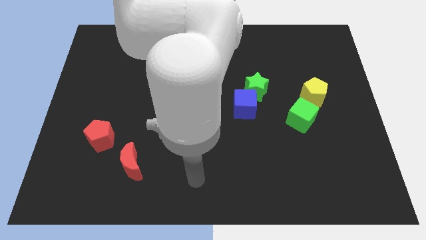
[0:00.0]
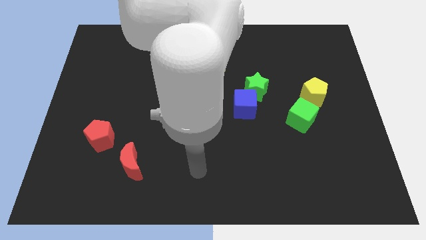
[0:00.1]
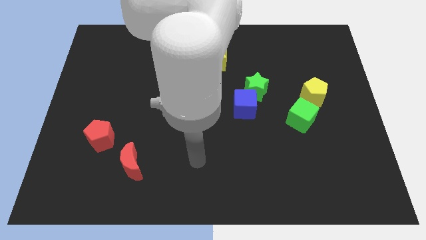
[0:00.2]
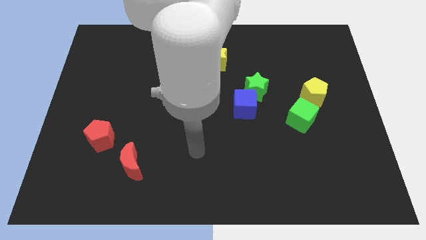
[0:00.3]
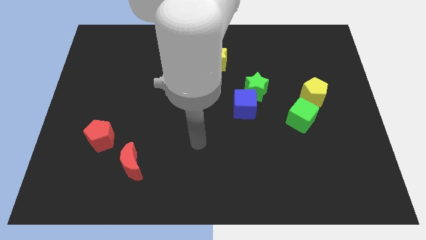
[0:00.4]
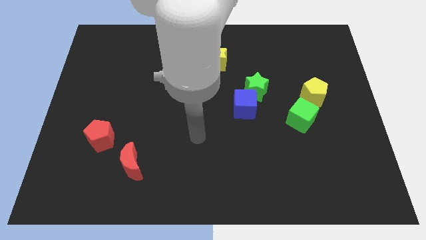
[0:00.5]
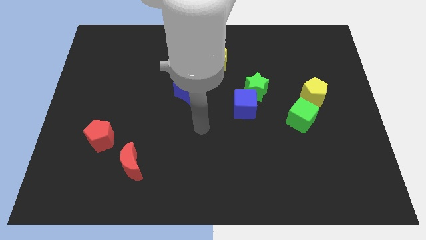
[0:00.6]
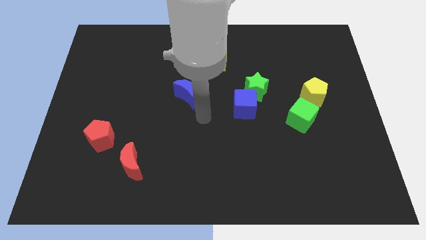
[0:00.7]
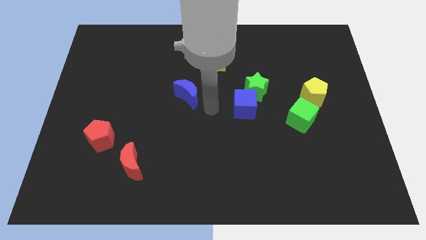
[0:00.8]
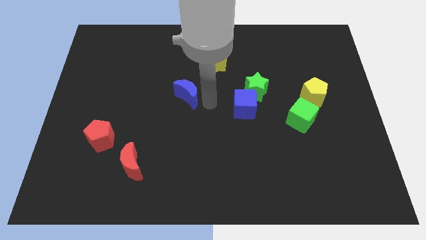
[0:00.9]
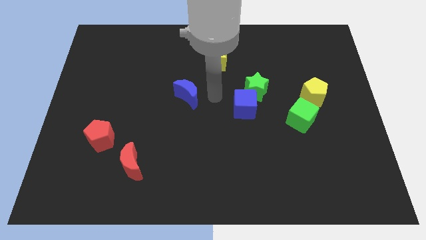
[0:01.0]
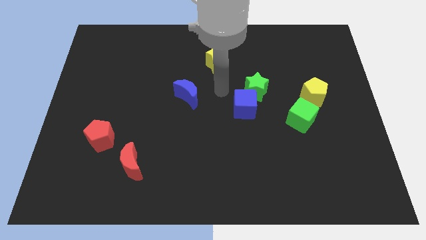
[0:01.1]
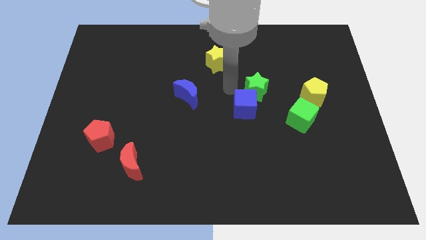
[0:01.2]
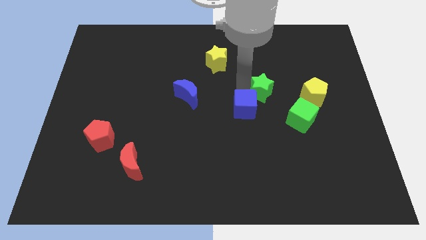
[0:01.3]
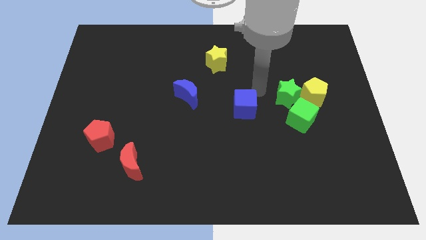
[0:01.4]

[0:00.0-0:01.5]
pull the blue cube apart from the green star

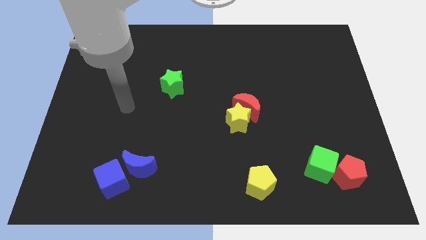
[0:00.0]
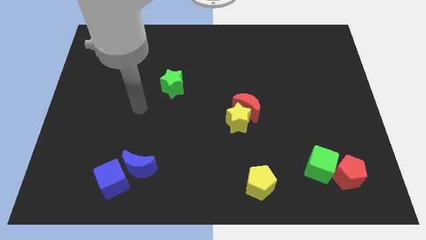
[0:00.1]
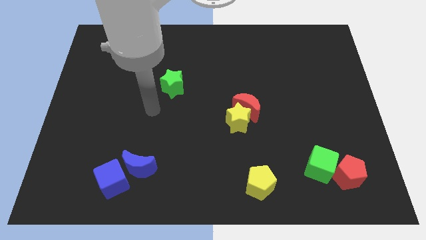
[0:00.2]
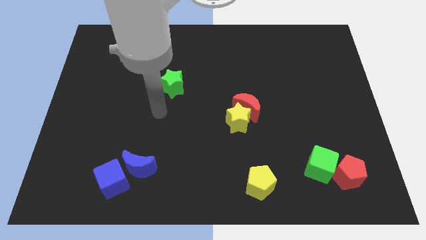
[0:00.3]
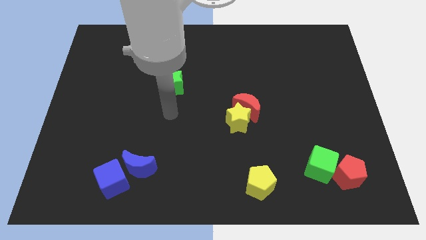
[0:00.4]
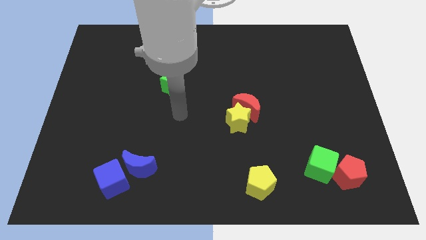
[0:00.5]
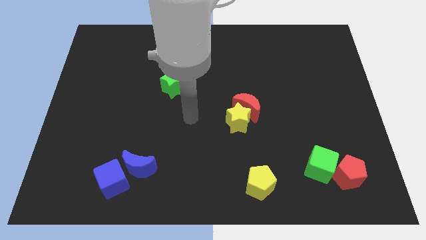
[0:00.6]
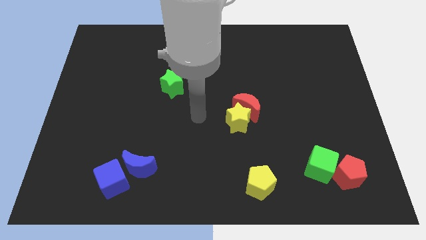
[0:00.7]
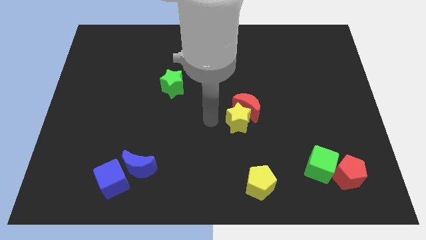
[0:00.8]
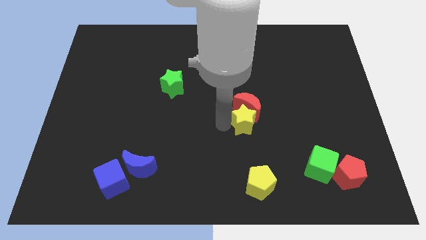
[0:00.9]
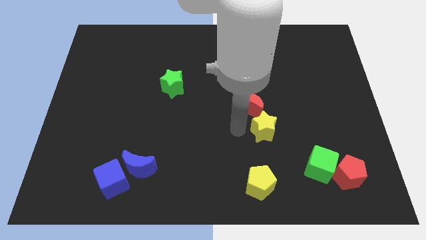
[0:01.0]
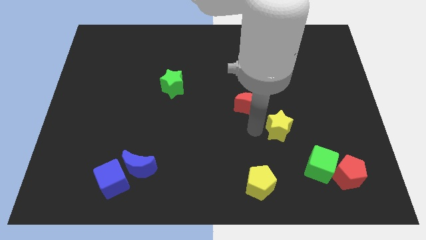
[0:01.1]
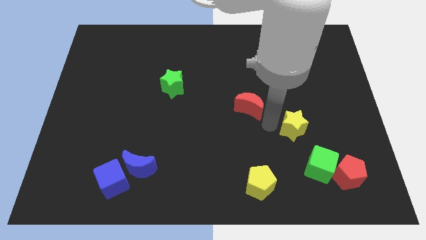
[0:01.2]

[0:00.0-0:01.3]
pull the red moon apart from the yellow star

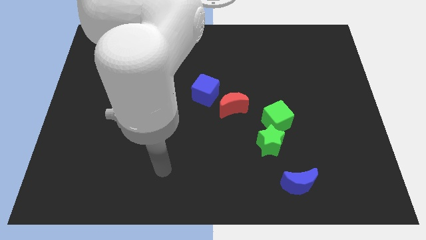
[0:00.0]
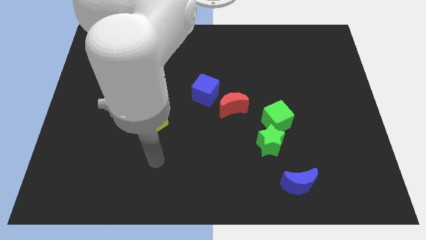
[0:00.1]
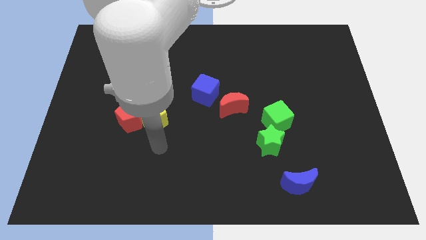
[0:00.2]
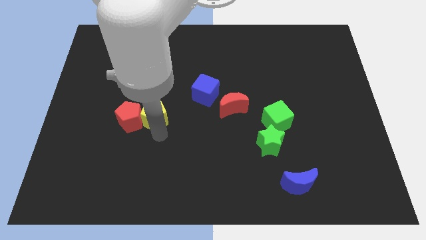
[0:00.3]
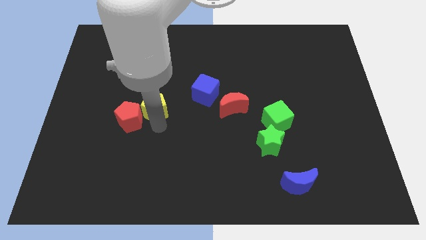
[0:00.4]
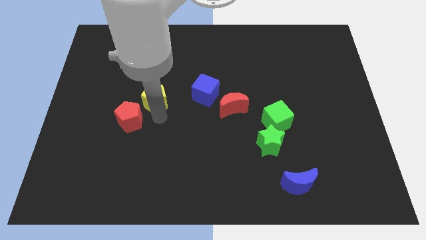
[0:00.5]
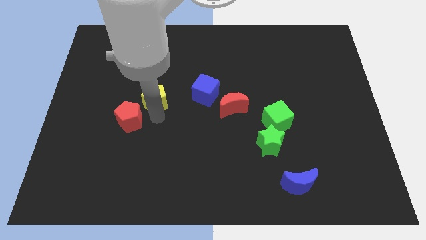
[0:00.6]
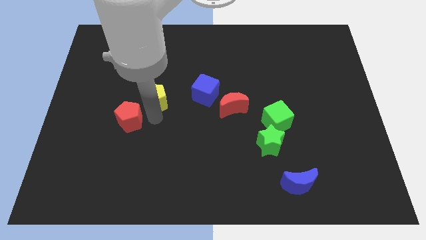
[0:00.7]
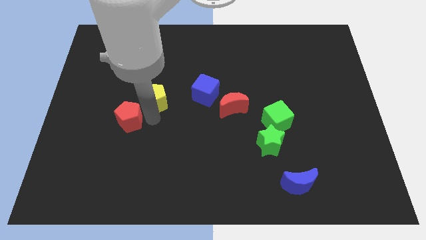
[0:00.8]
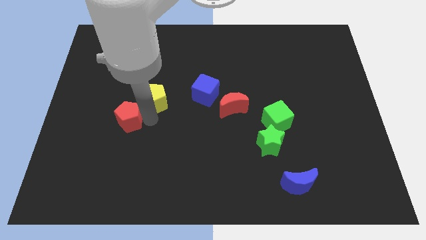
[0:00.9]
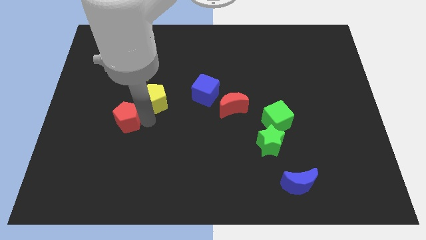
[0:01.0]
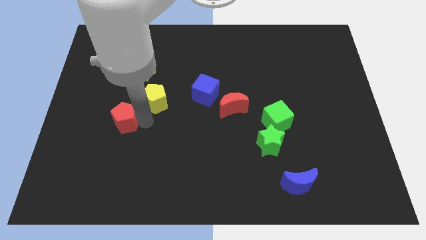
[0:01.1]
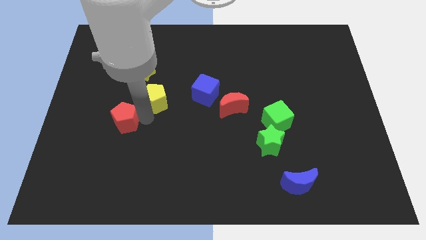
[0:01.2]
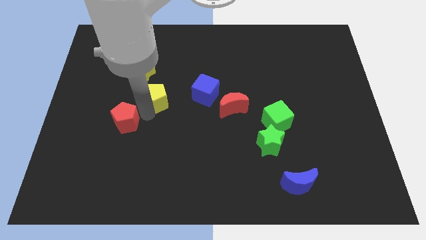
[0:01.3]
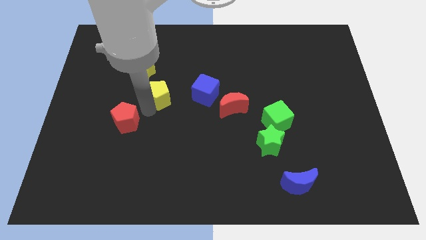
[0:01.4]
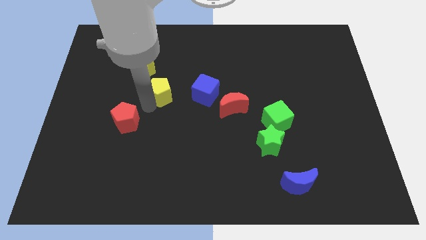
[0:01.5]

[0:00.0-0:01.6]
pull the red pentagon apart from the yellow pentagon

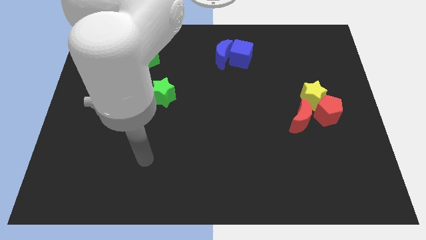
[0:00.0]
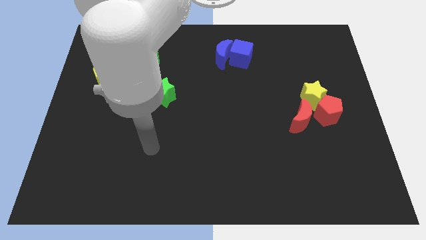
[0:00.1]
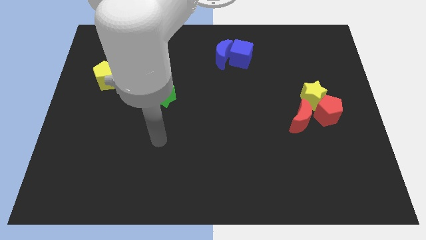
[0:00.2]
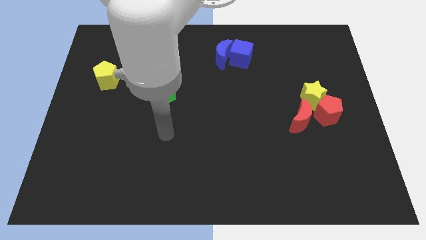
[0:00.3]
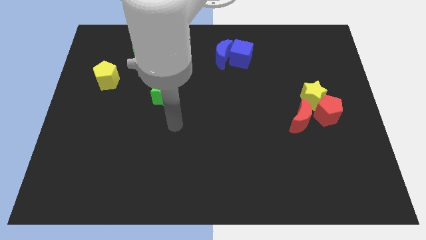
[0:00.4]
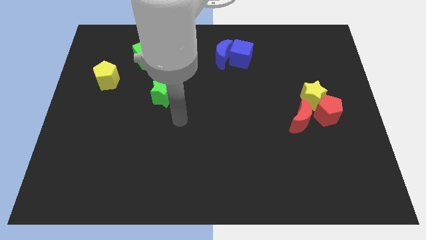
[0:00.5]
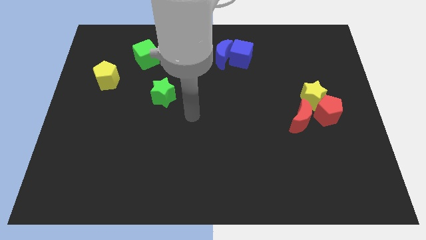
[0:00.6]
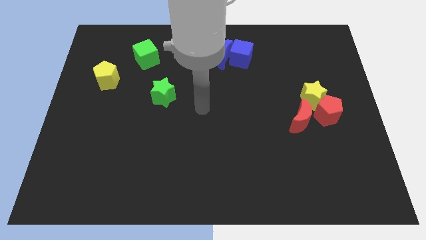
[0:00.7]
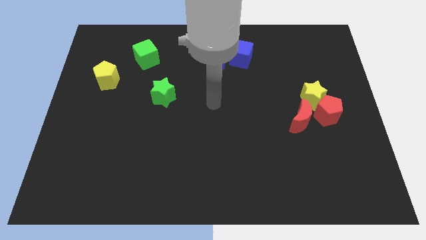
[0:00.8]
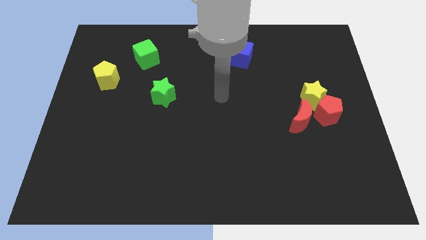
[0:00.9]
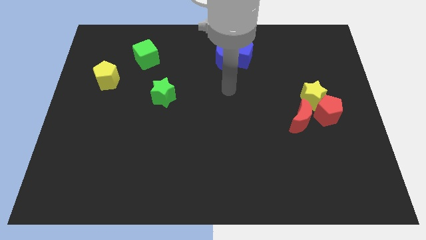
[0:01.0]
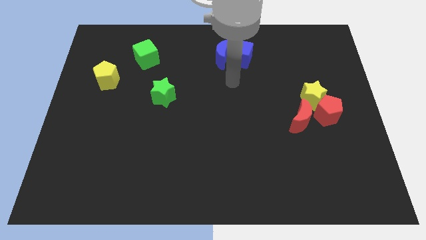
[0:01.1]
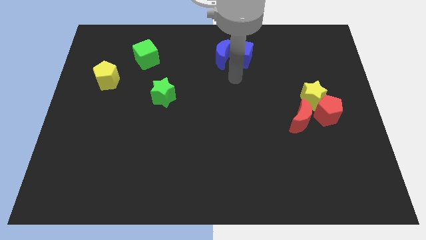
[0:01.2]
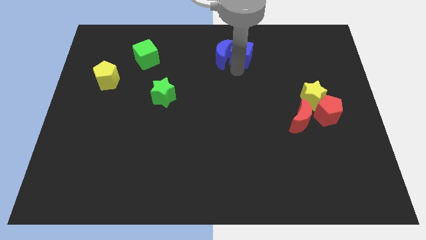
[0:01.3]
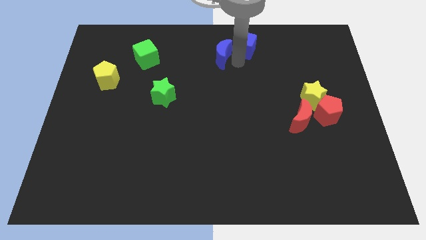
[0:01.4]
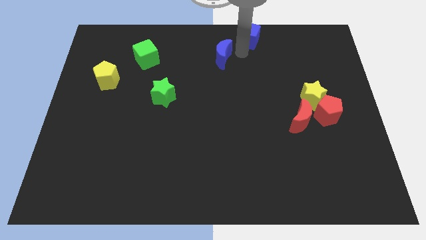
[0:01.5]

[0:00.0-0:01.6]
move the blue moon away from the blue cube

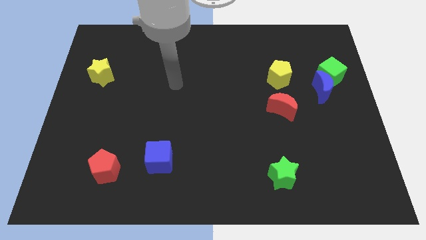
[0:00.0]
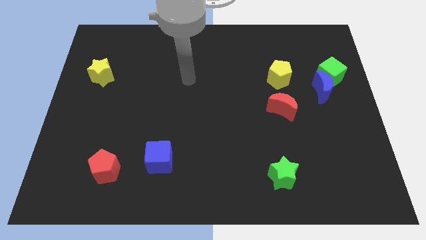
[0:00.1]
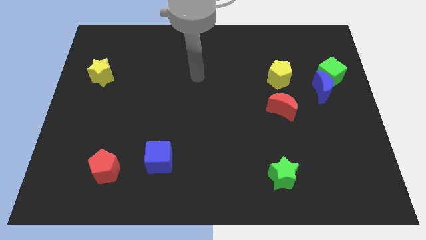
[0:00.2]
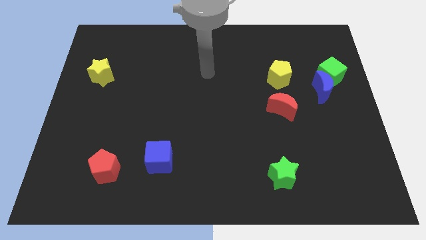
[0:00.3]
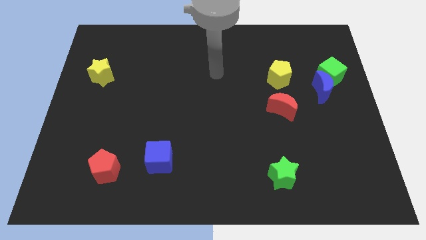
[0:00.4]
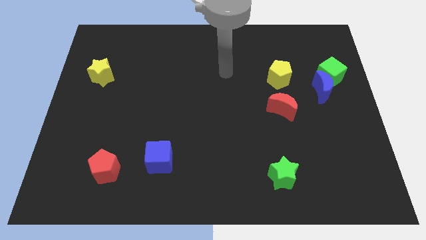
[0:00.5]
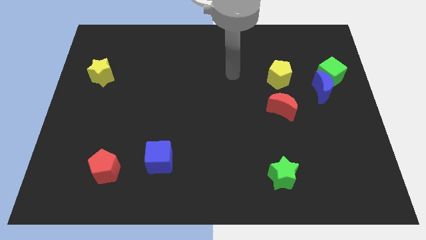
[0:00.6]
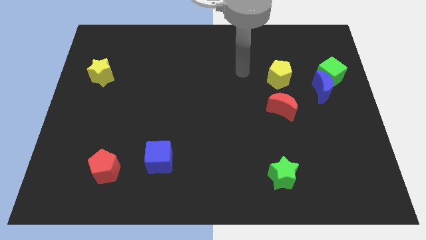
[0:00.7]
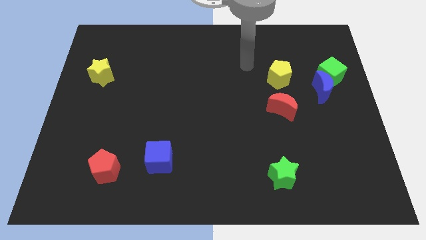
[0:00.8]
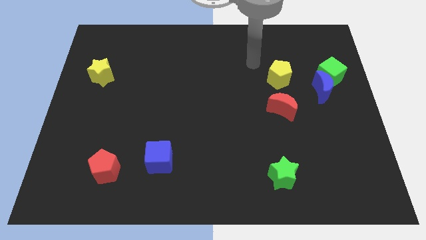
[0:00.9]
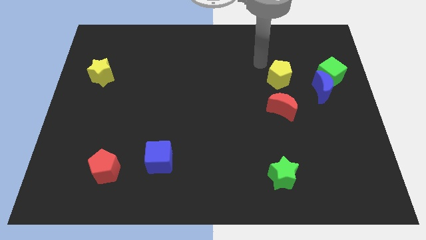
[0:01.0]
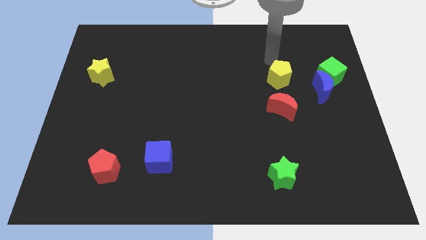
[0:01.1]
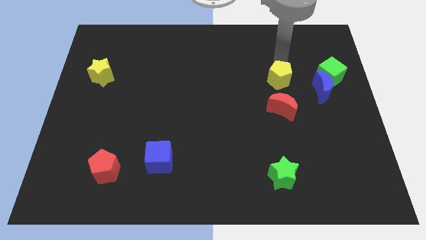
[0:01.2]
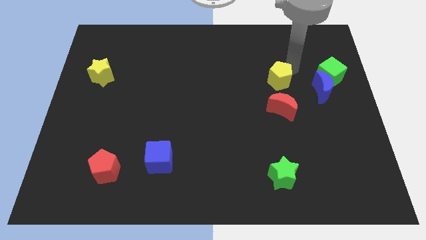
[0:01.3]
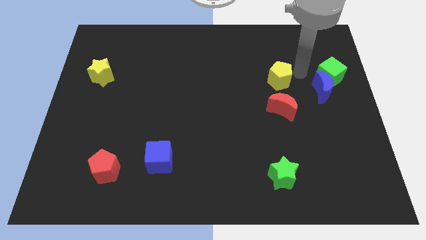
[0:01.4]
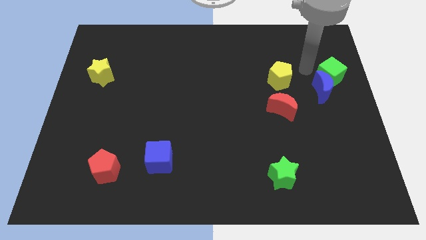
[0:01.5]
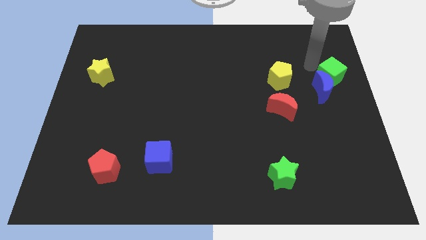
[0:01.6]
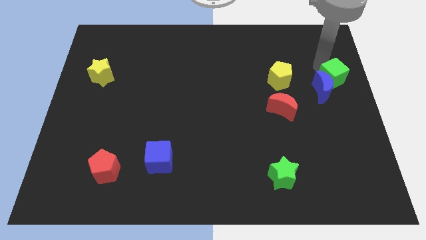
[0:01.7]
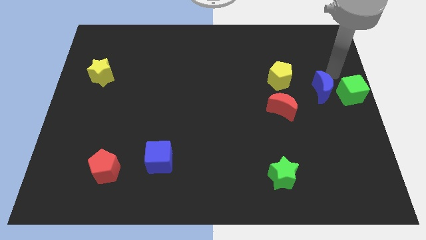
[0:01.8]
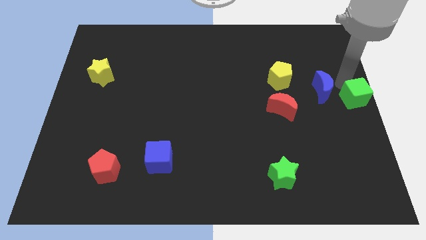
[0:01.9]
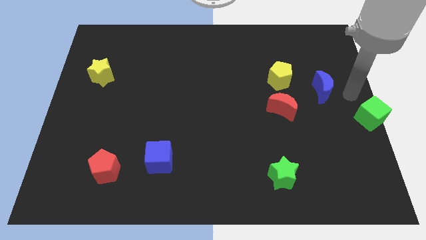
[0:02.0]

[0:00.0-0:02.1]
pull the blue moon apart from the green cube

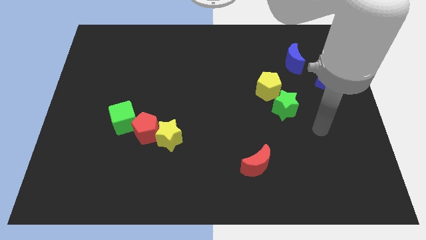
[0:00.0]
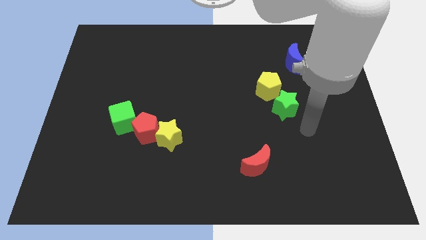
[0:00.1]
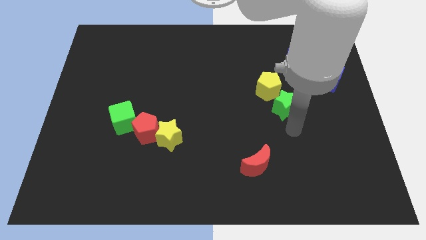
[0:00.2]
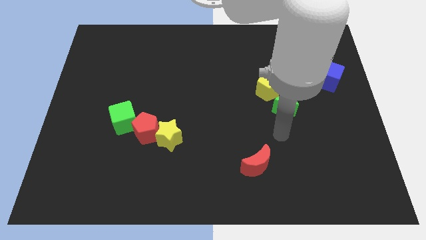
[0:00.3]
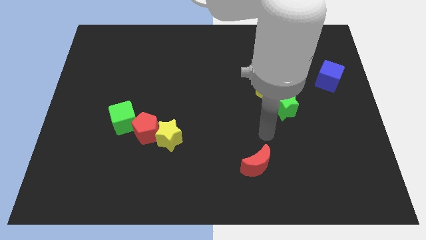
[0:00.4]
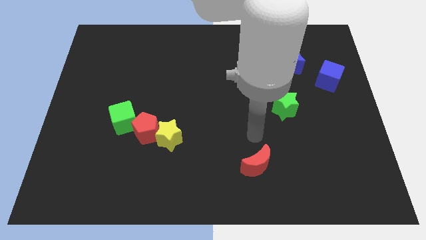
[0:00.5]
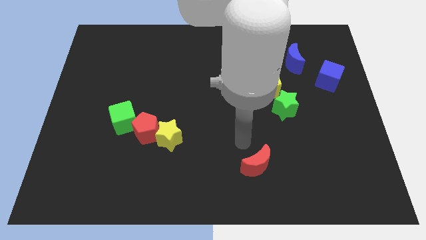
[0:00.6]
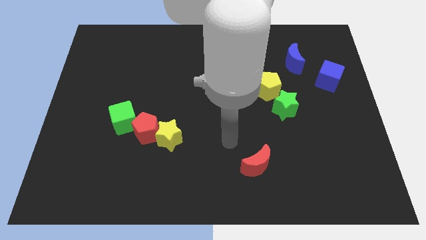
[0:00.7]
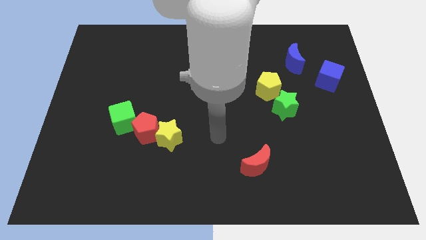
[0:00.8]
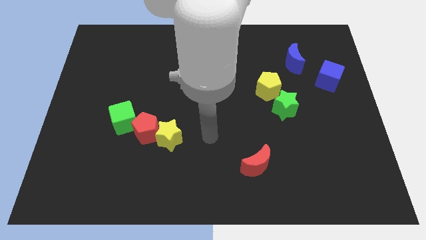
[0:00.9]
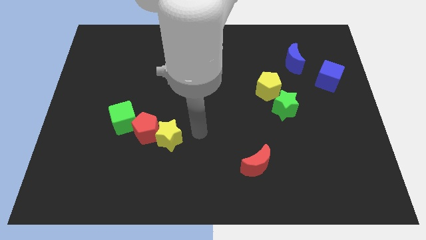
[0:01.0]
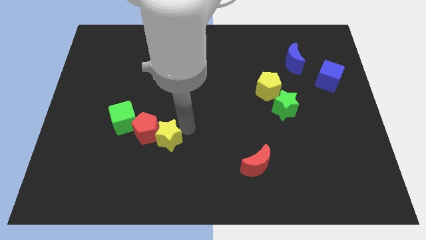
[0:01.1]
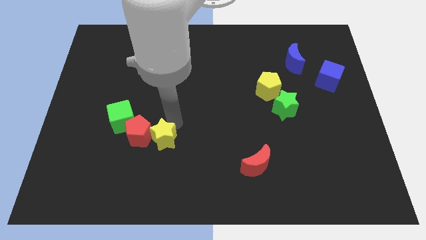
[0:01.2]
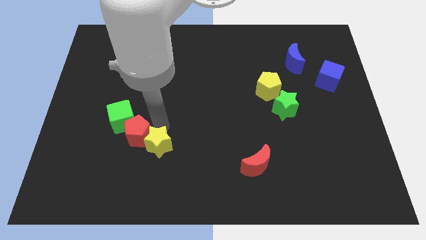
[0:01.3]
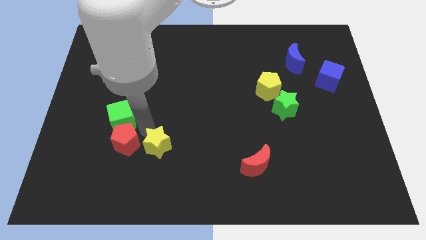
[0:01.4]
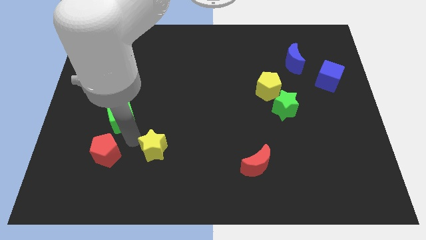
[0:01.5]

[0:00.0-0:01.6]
separate the yellow star from the red pentagon
